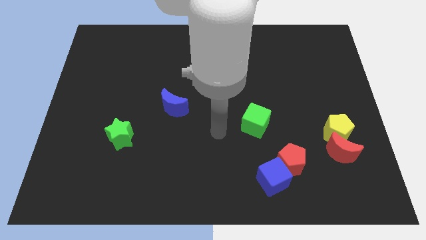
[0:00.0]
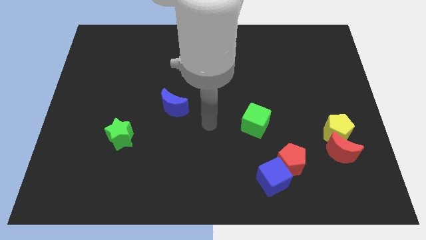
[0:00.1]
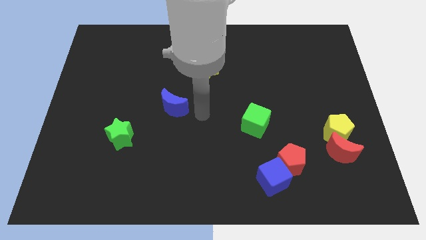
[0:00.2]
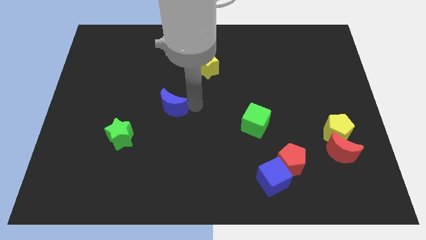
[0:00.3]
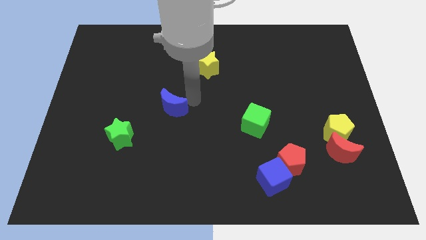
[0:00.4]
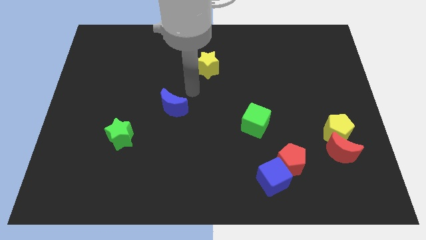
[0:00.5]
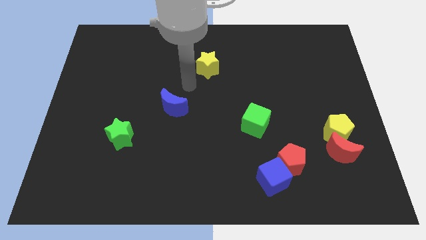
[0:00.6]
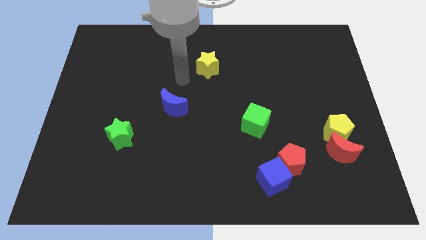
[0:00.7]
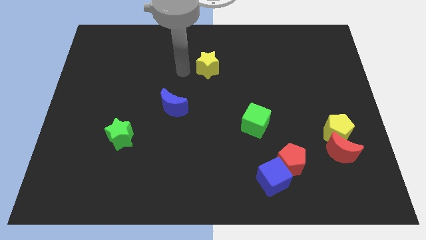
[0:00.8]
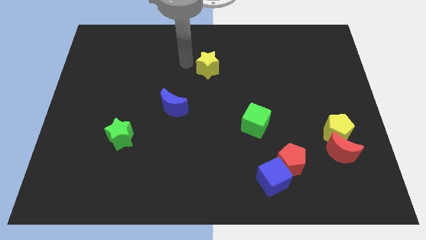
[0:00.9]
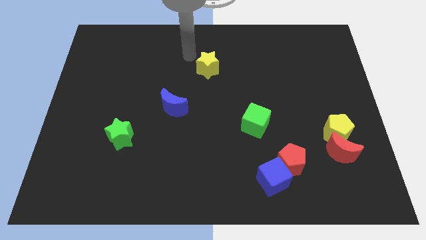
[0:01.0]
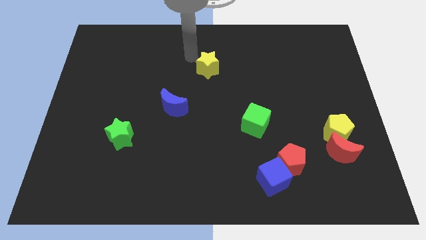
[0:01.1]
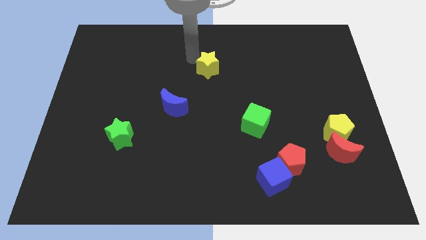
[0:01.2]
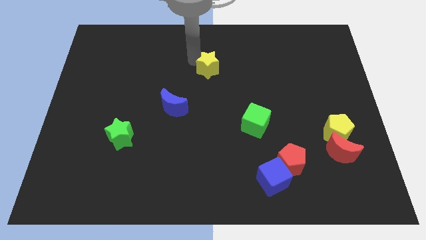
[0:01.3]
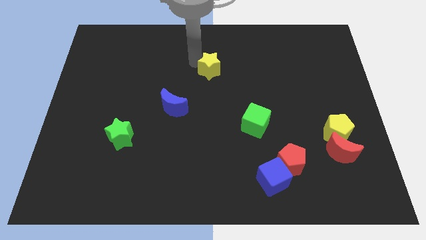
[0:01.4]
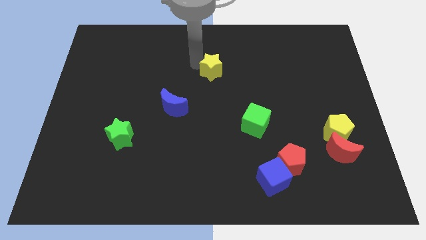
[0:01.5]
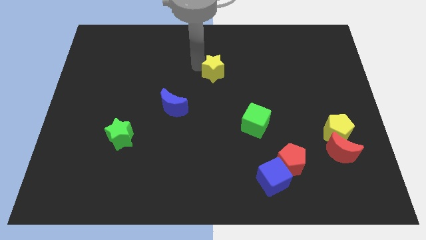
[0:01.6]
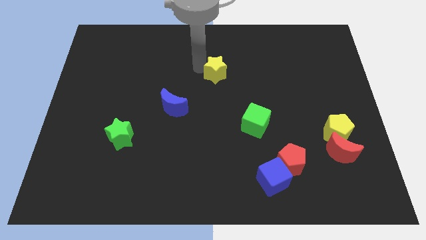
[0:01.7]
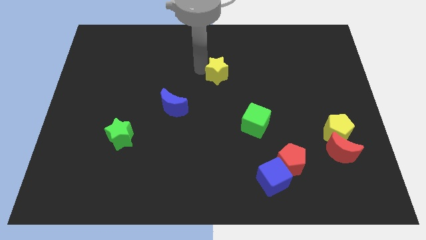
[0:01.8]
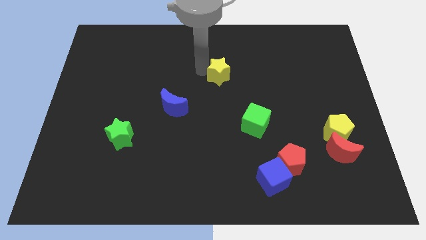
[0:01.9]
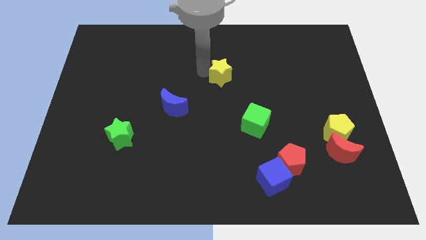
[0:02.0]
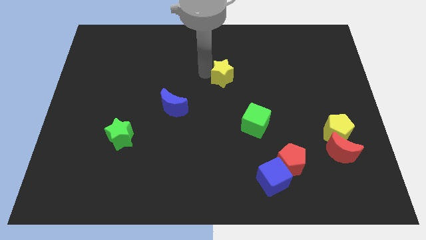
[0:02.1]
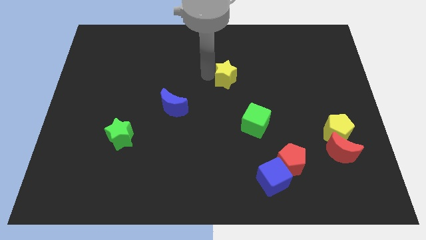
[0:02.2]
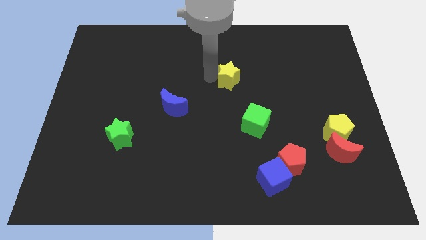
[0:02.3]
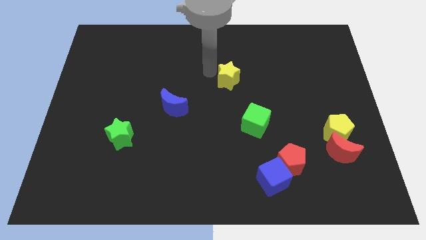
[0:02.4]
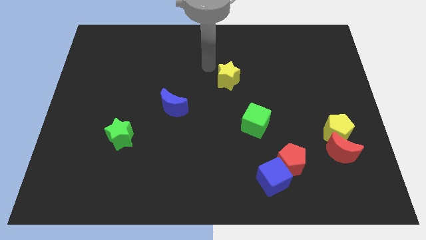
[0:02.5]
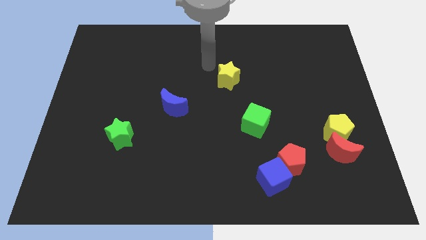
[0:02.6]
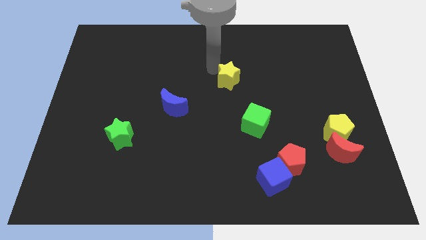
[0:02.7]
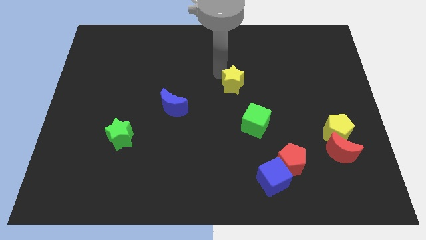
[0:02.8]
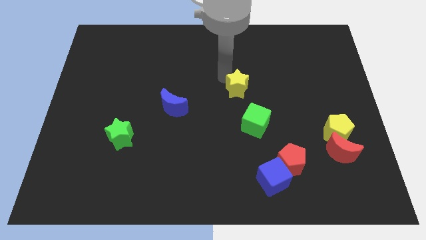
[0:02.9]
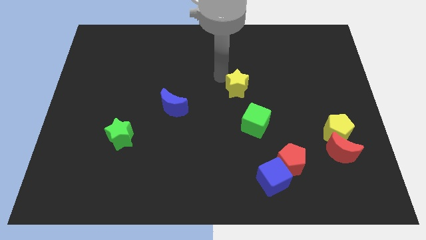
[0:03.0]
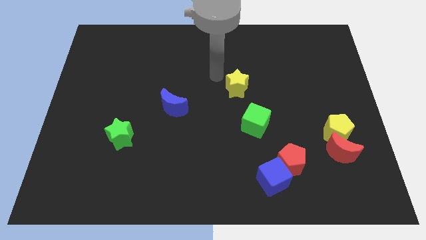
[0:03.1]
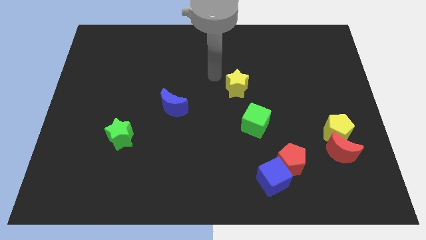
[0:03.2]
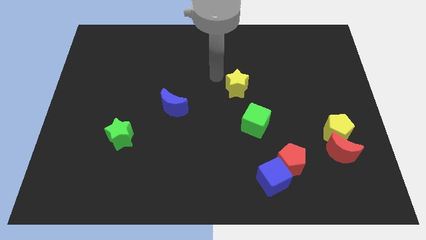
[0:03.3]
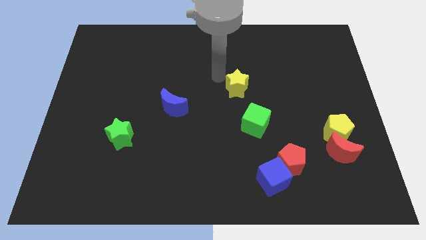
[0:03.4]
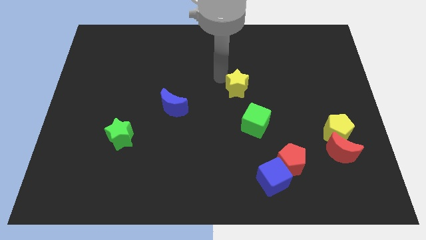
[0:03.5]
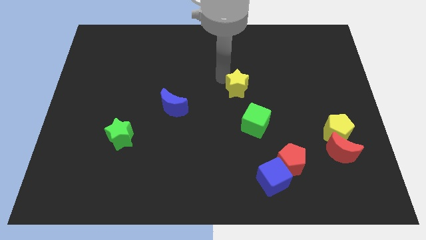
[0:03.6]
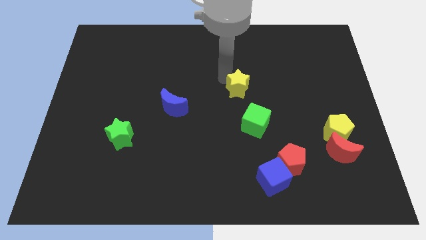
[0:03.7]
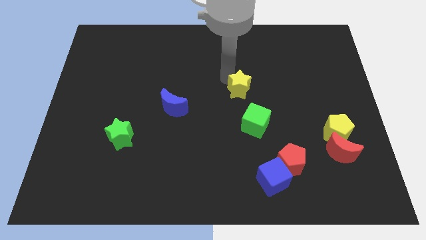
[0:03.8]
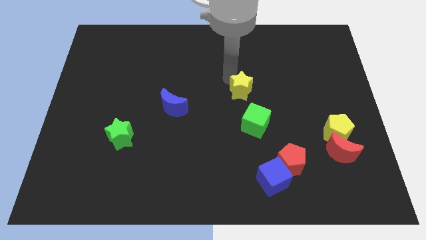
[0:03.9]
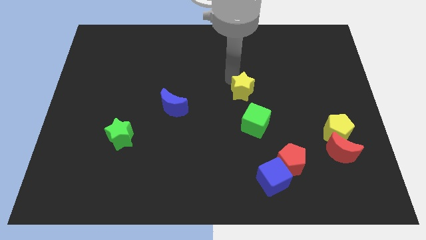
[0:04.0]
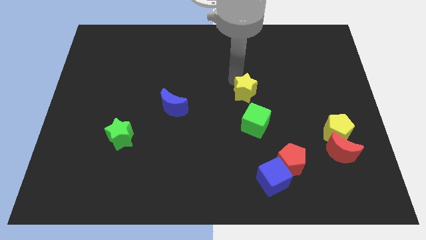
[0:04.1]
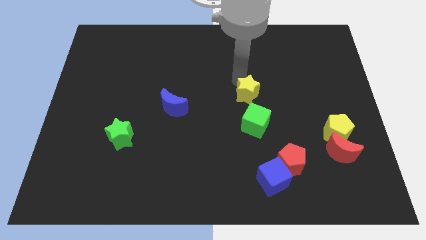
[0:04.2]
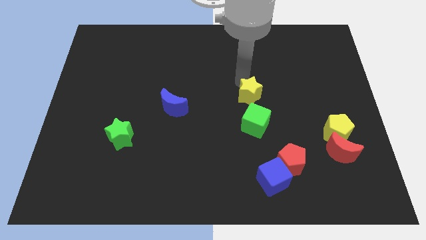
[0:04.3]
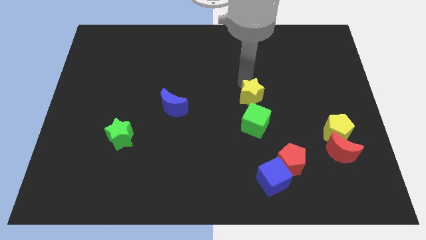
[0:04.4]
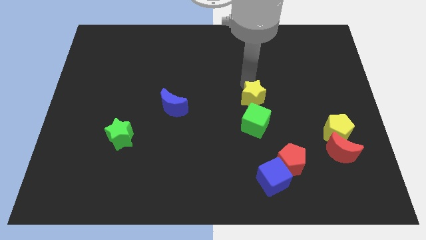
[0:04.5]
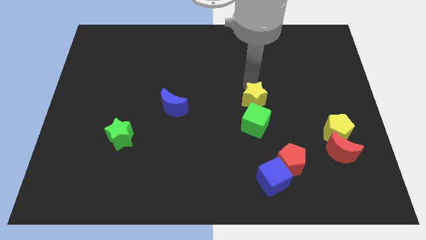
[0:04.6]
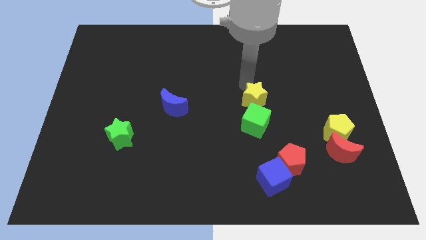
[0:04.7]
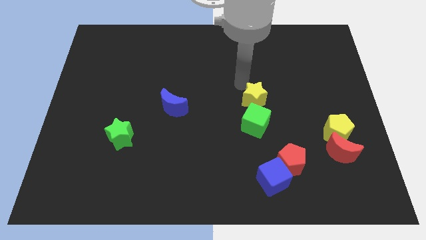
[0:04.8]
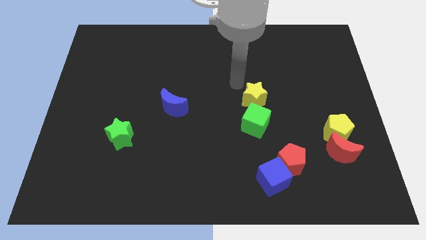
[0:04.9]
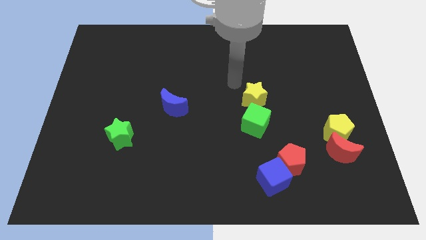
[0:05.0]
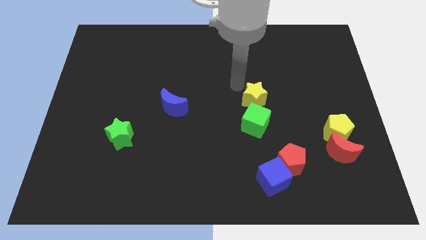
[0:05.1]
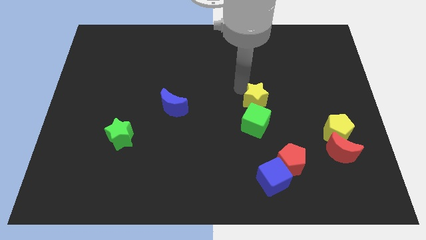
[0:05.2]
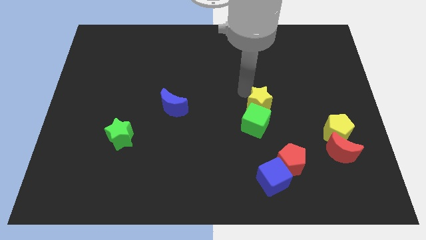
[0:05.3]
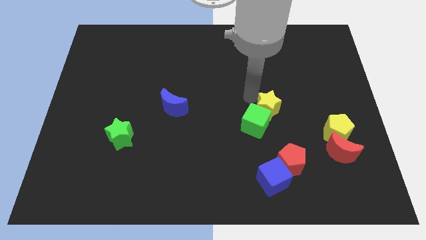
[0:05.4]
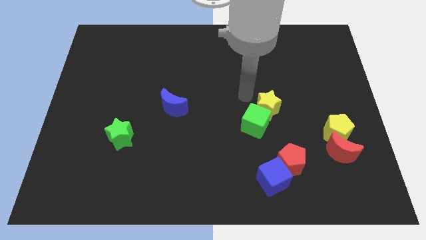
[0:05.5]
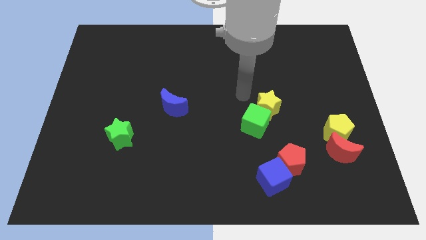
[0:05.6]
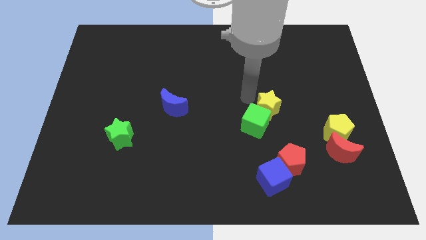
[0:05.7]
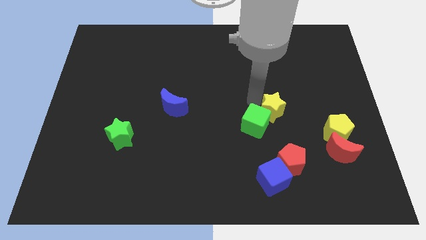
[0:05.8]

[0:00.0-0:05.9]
slide the yellow star down and right

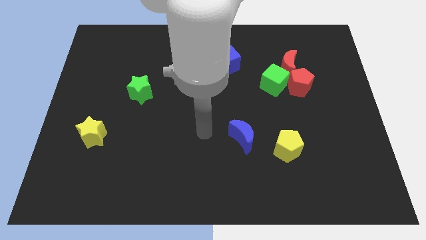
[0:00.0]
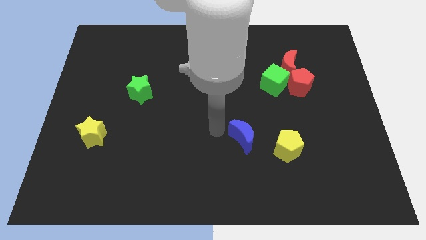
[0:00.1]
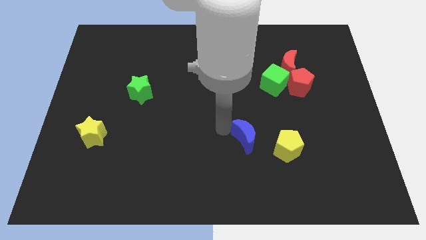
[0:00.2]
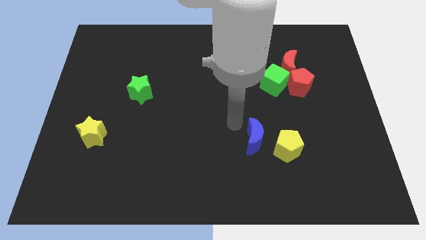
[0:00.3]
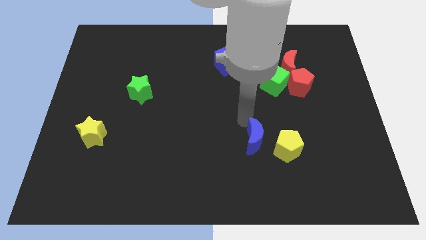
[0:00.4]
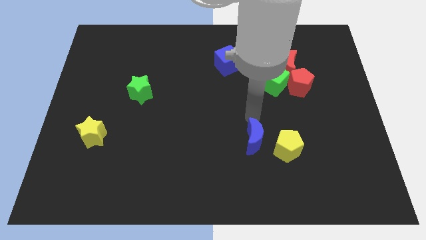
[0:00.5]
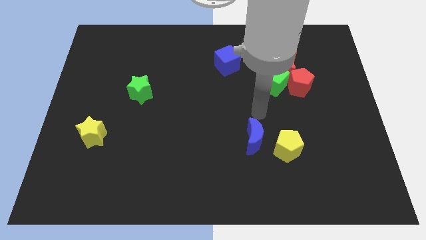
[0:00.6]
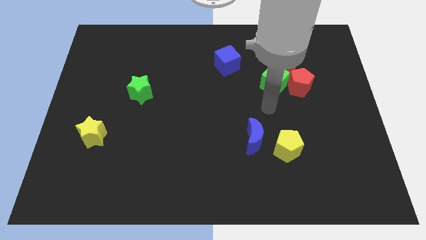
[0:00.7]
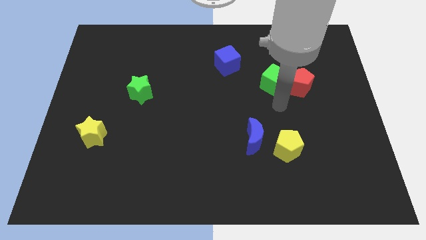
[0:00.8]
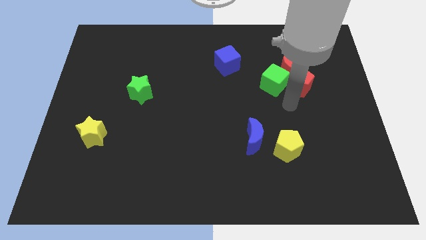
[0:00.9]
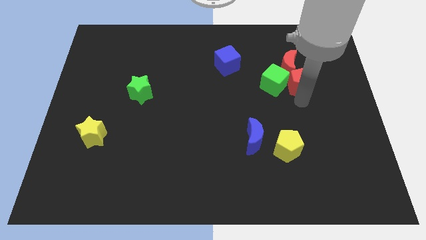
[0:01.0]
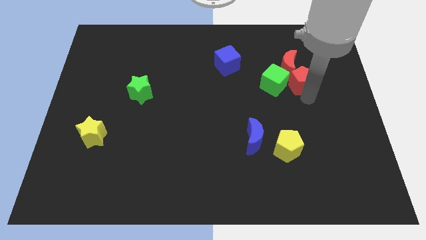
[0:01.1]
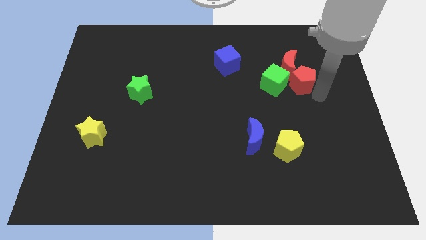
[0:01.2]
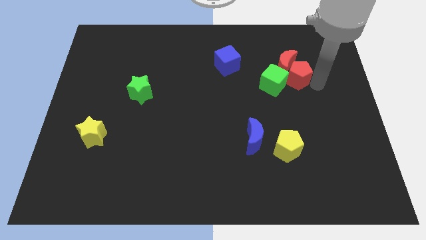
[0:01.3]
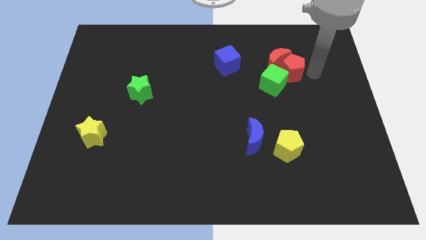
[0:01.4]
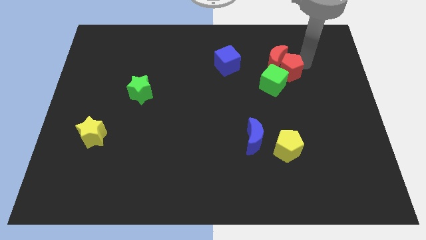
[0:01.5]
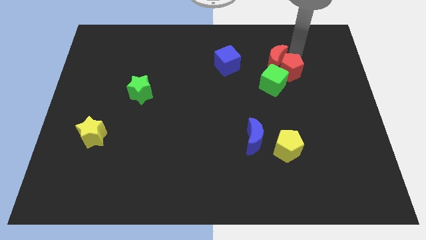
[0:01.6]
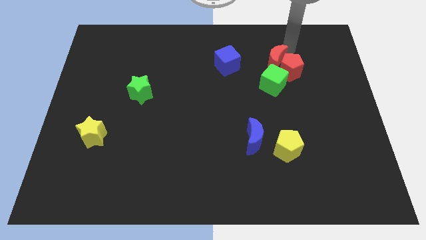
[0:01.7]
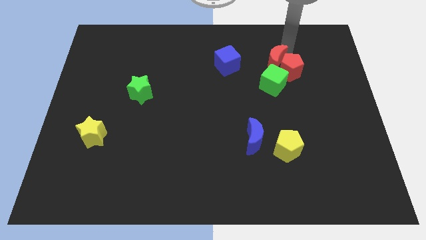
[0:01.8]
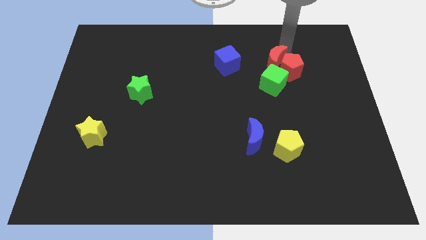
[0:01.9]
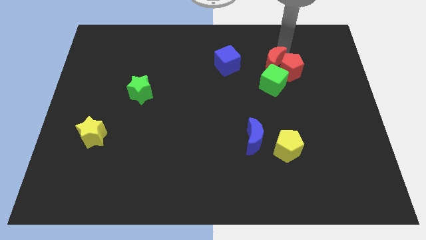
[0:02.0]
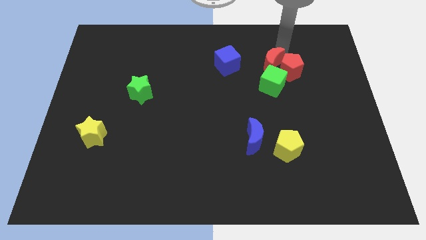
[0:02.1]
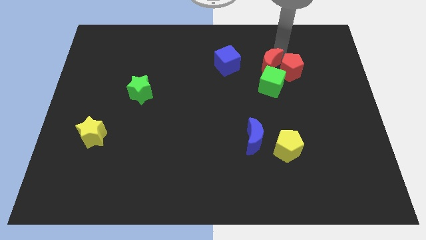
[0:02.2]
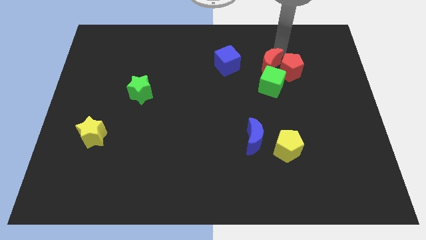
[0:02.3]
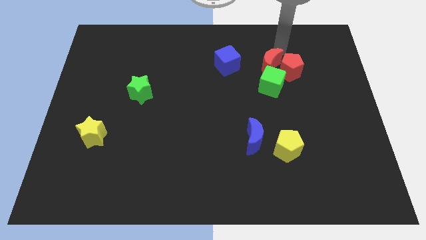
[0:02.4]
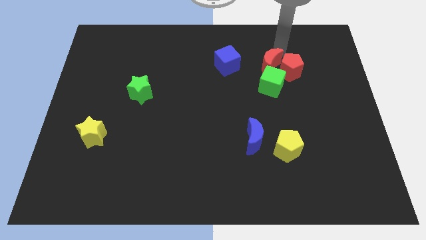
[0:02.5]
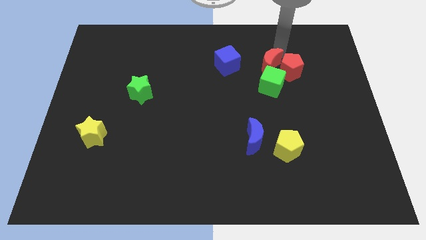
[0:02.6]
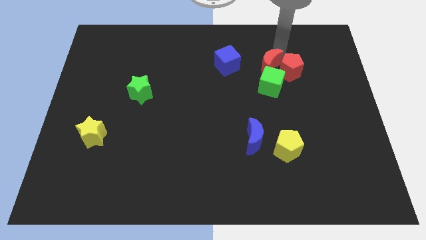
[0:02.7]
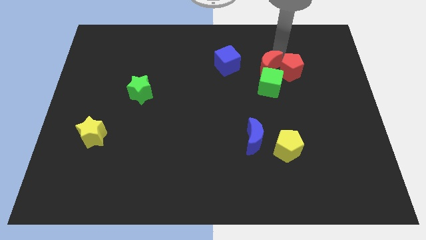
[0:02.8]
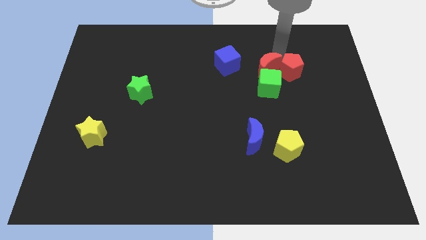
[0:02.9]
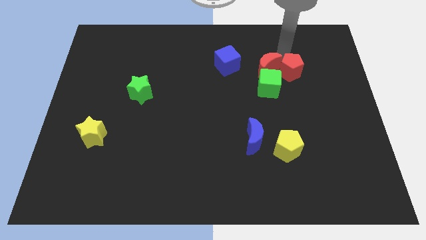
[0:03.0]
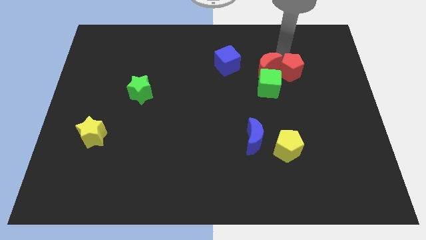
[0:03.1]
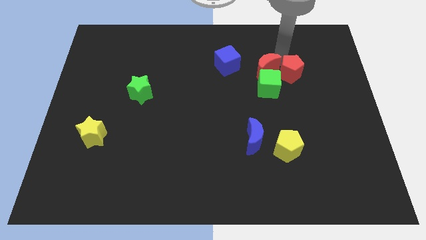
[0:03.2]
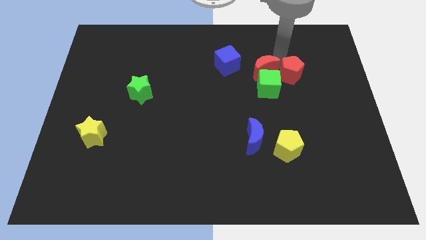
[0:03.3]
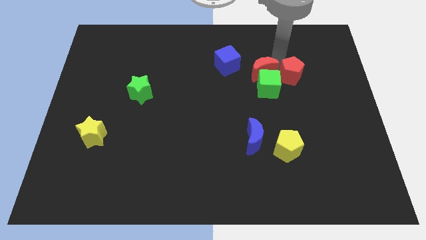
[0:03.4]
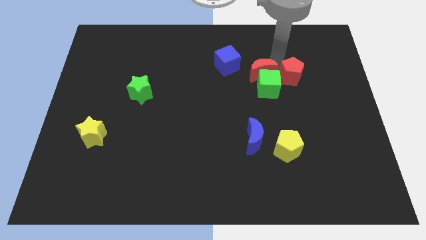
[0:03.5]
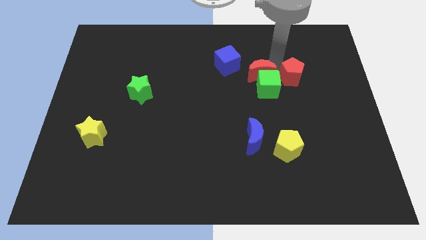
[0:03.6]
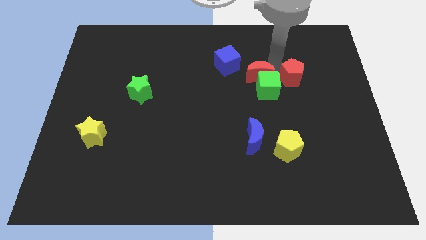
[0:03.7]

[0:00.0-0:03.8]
move the red moon diagonally down and to the left a bit
